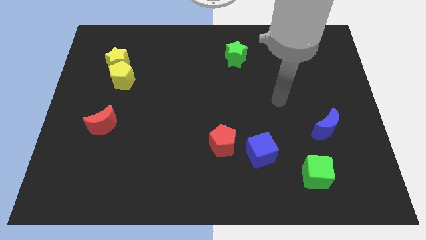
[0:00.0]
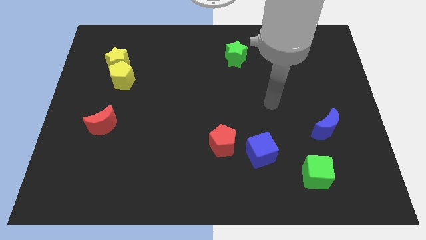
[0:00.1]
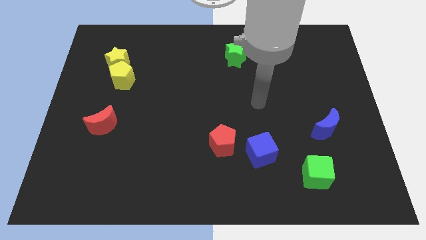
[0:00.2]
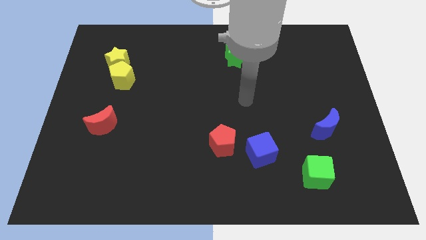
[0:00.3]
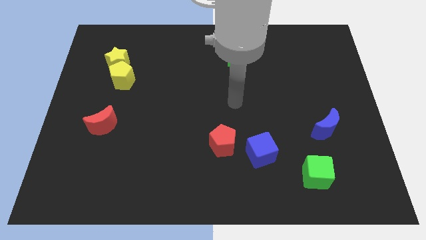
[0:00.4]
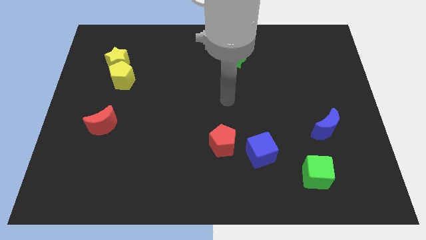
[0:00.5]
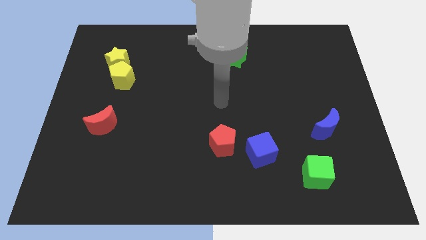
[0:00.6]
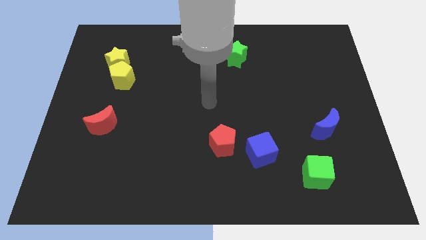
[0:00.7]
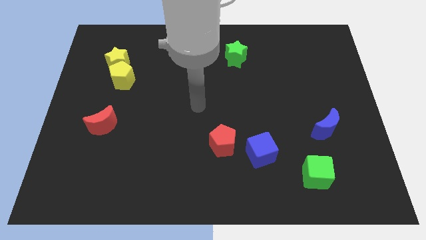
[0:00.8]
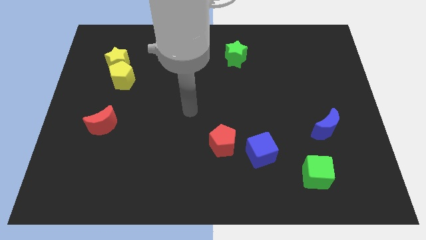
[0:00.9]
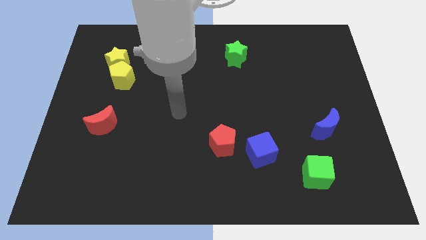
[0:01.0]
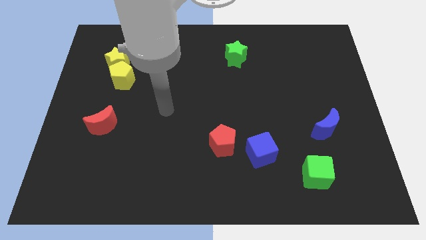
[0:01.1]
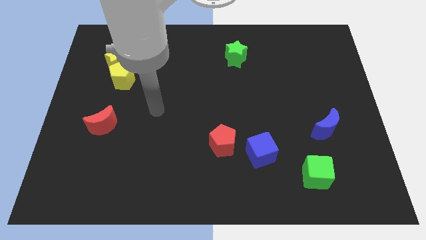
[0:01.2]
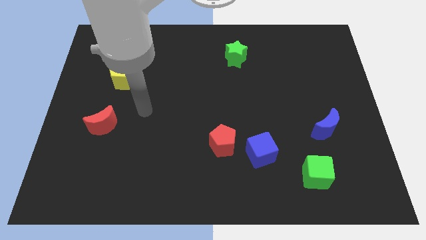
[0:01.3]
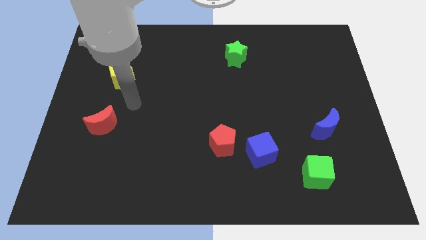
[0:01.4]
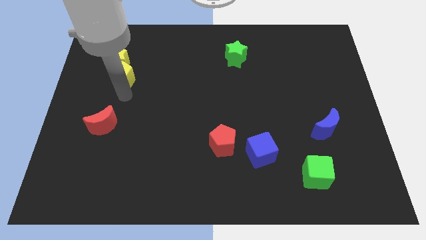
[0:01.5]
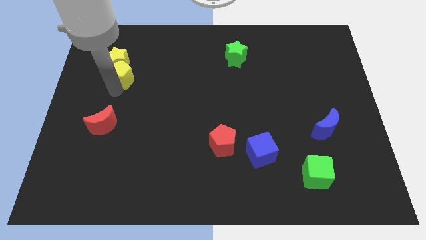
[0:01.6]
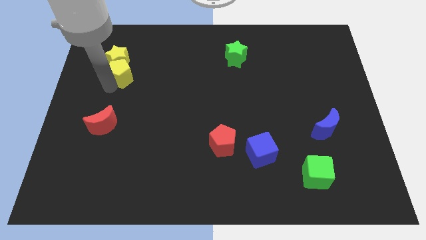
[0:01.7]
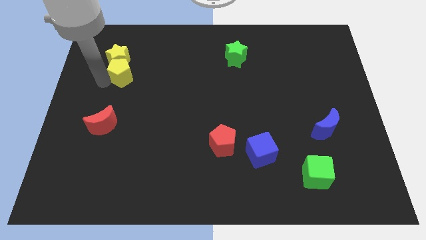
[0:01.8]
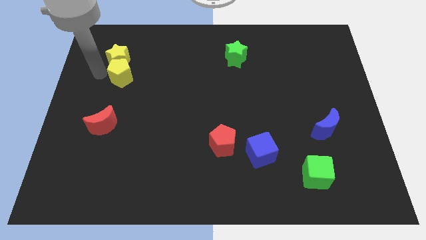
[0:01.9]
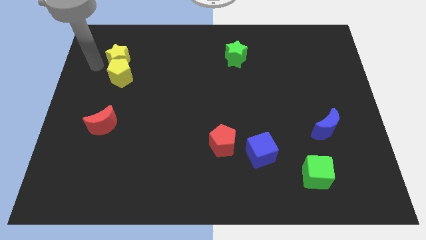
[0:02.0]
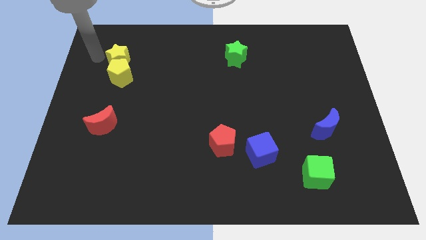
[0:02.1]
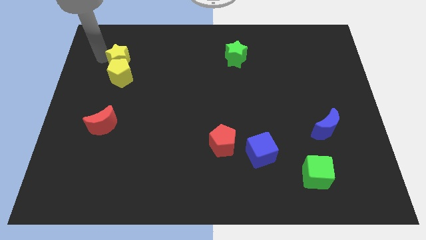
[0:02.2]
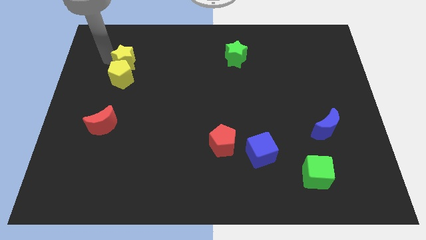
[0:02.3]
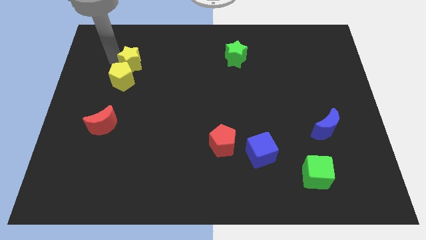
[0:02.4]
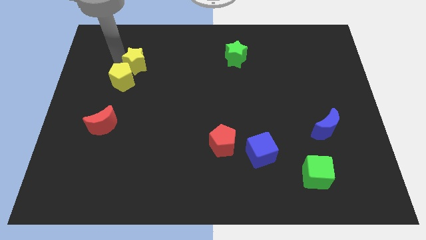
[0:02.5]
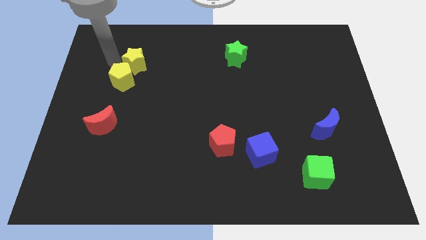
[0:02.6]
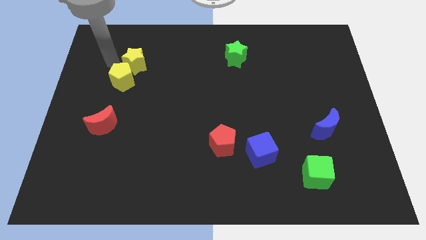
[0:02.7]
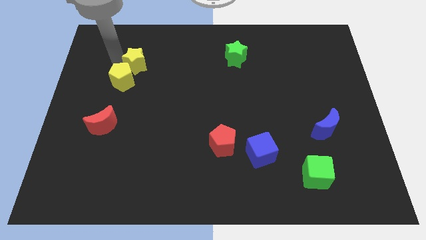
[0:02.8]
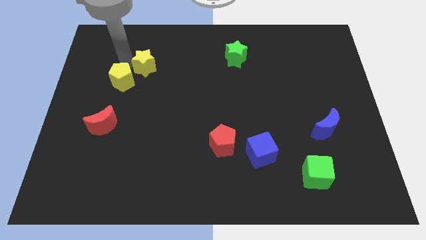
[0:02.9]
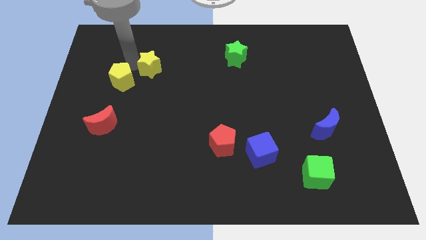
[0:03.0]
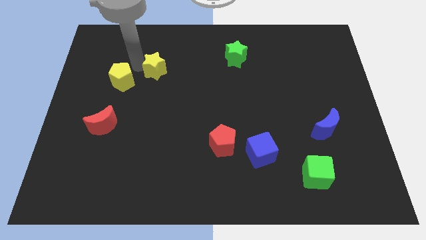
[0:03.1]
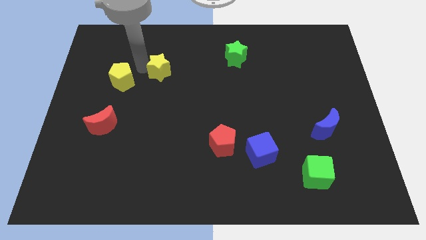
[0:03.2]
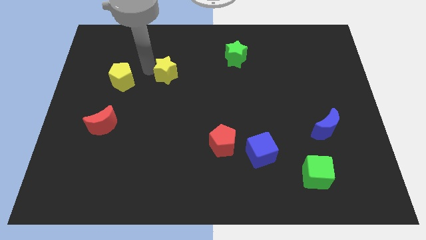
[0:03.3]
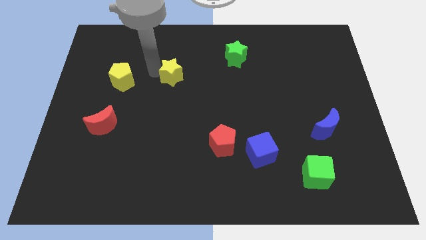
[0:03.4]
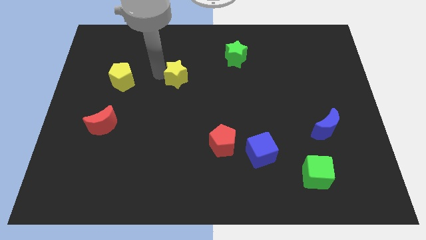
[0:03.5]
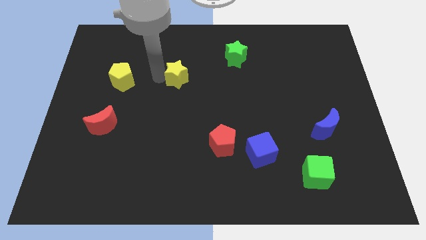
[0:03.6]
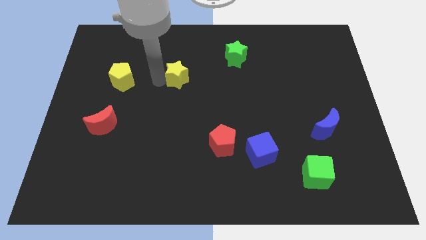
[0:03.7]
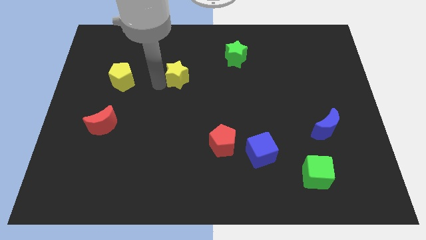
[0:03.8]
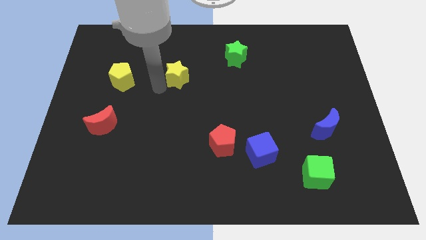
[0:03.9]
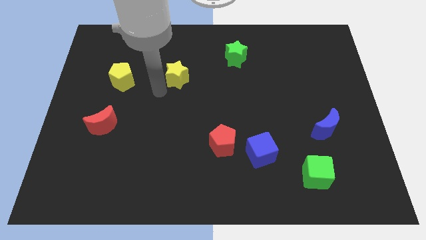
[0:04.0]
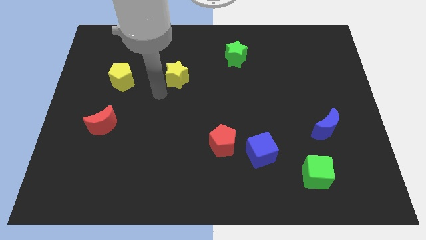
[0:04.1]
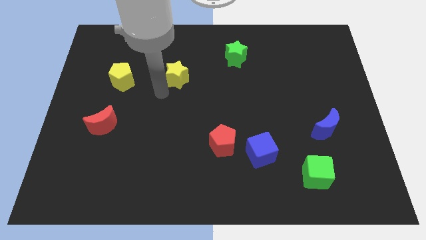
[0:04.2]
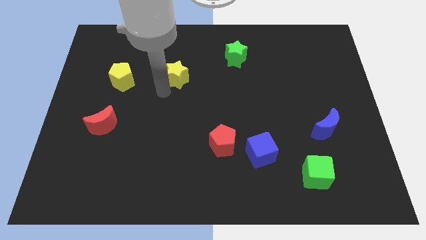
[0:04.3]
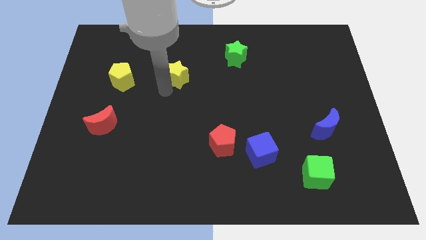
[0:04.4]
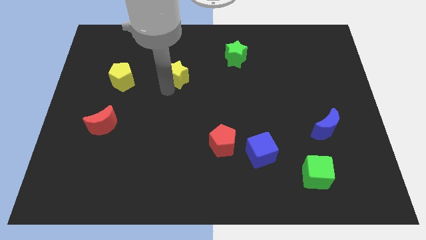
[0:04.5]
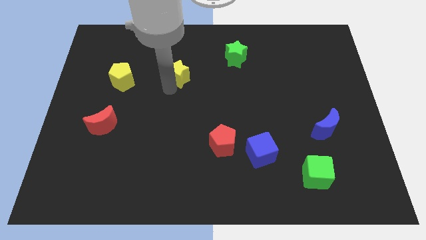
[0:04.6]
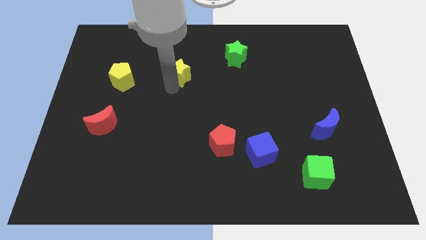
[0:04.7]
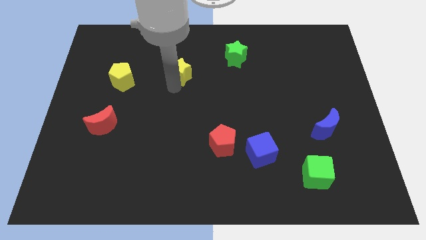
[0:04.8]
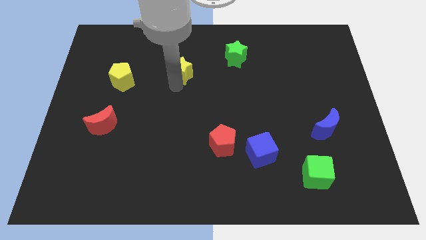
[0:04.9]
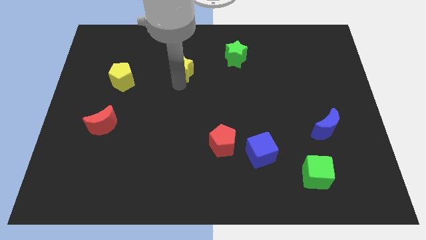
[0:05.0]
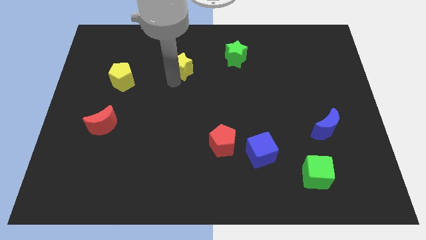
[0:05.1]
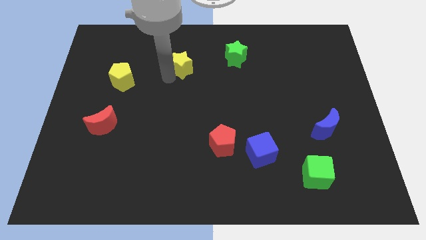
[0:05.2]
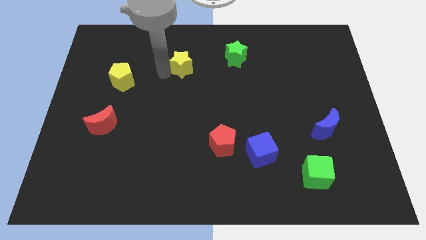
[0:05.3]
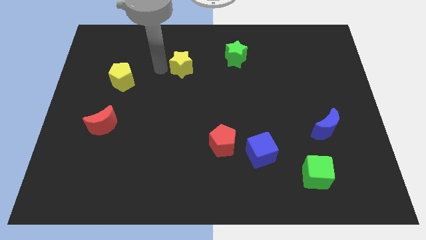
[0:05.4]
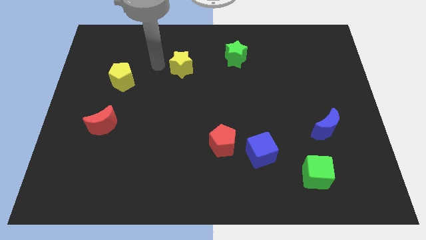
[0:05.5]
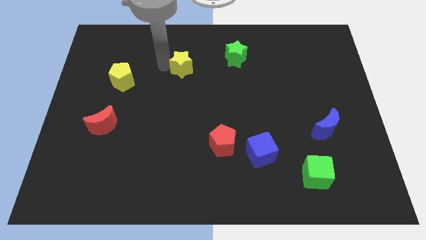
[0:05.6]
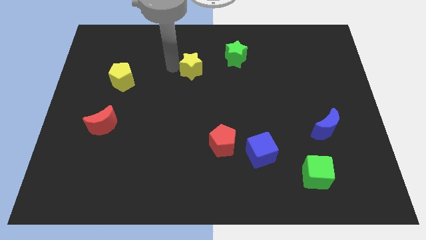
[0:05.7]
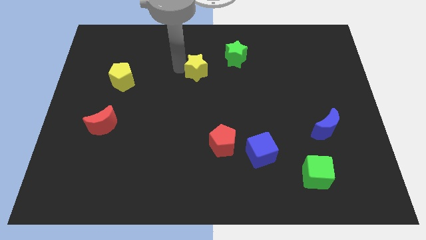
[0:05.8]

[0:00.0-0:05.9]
push the yellow star to the bottom left of the green star

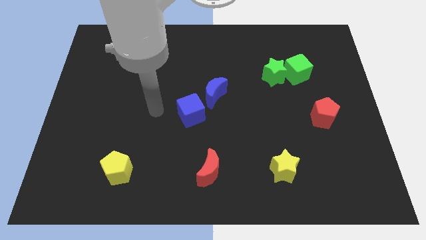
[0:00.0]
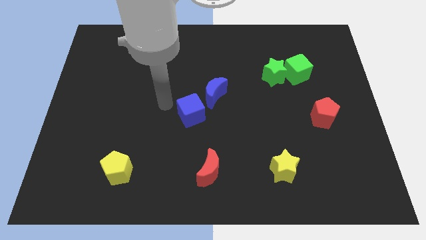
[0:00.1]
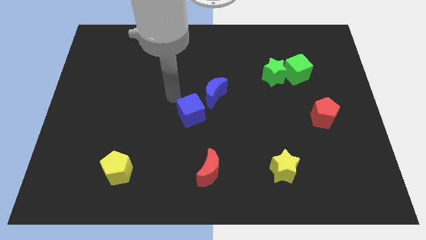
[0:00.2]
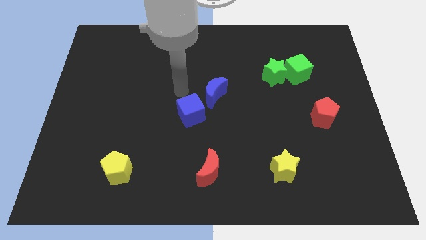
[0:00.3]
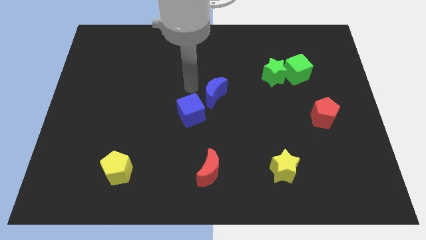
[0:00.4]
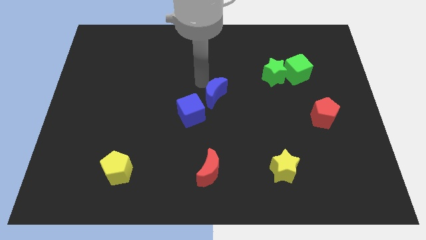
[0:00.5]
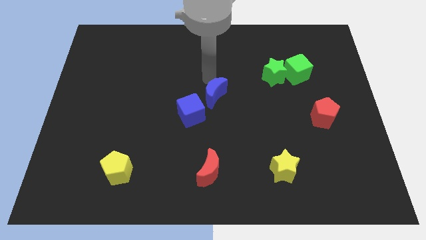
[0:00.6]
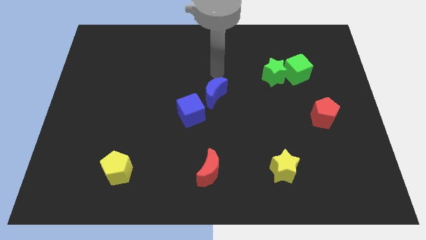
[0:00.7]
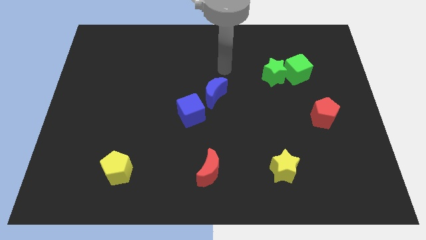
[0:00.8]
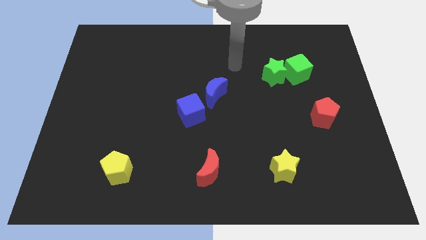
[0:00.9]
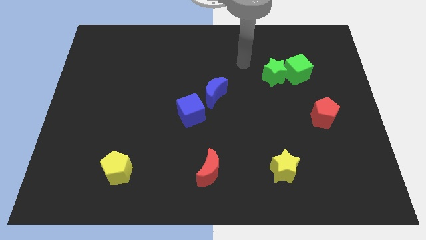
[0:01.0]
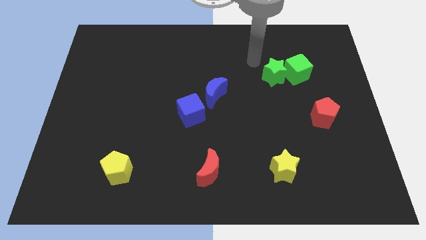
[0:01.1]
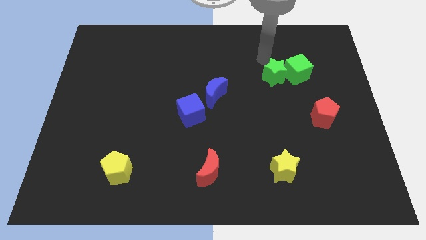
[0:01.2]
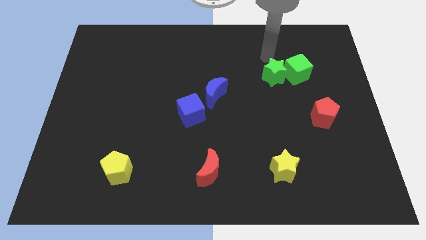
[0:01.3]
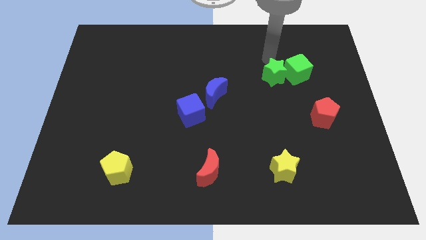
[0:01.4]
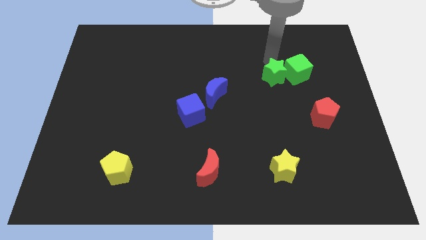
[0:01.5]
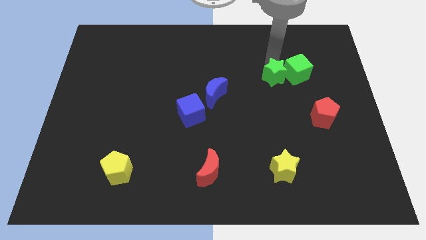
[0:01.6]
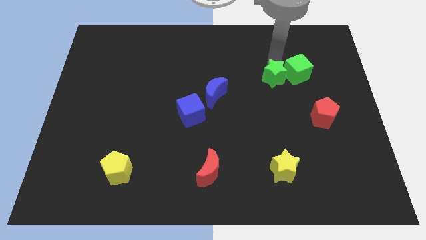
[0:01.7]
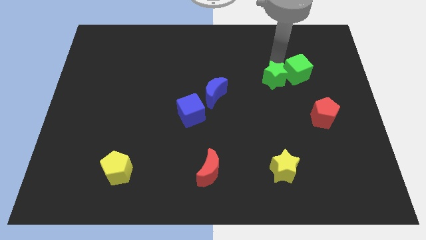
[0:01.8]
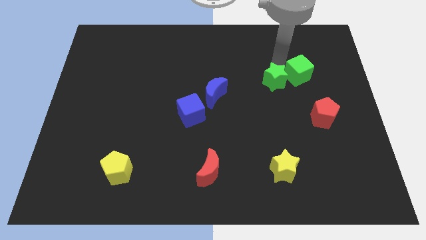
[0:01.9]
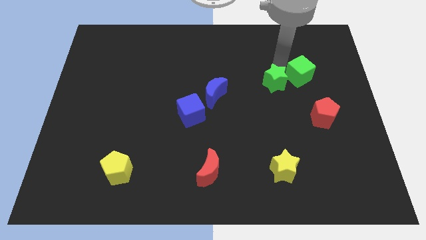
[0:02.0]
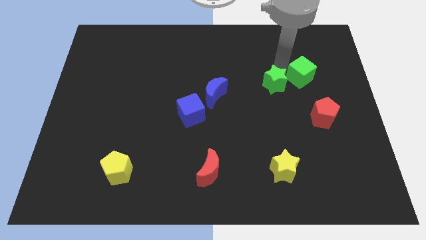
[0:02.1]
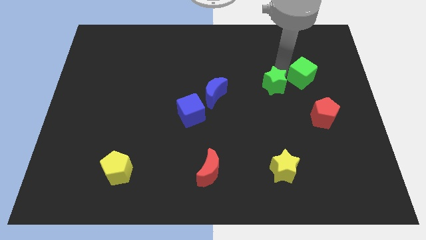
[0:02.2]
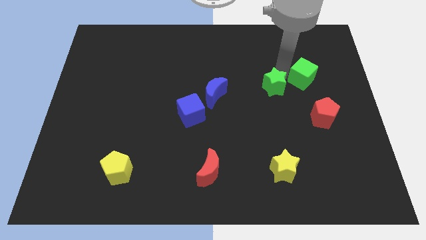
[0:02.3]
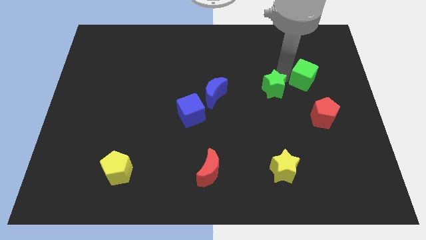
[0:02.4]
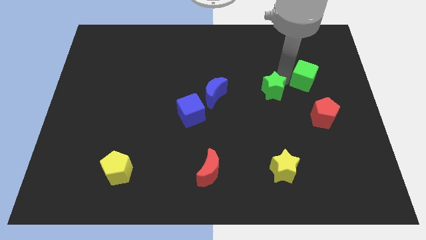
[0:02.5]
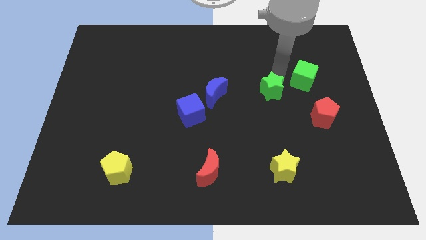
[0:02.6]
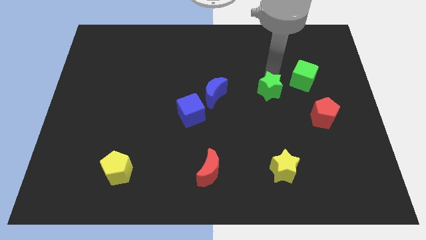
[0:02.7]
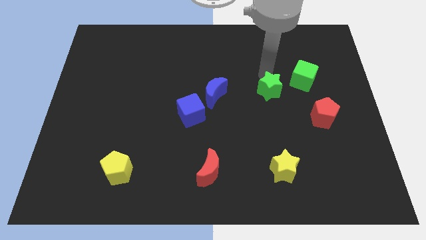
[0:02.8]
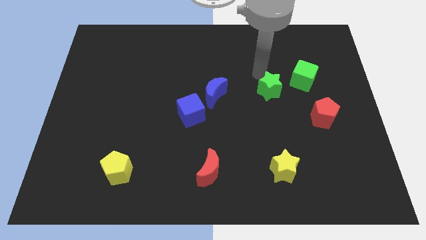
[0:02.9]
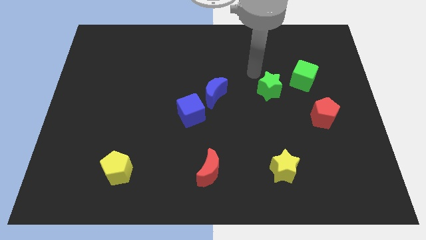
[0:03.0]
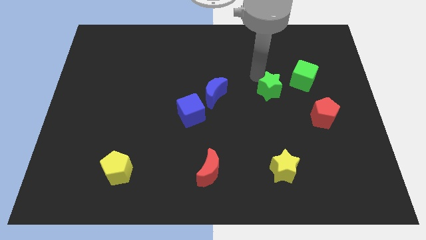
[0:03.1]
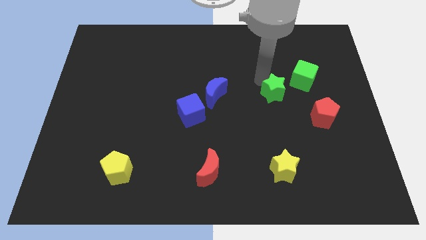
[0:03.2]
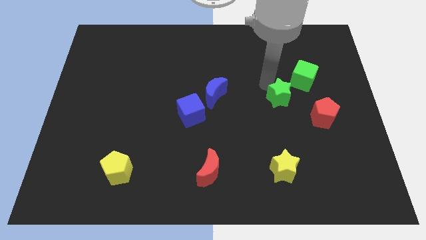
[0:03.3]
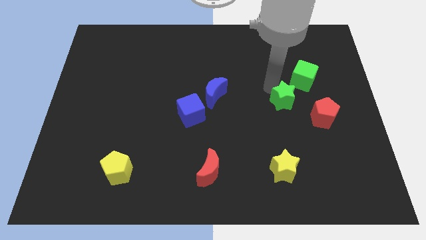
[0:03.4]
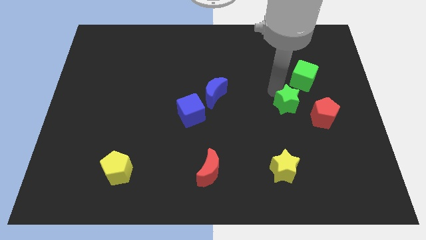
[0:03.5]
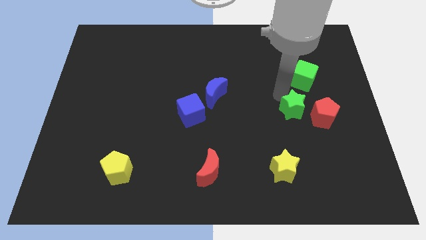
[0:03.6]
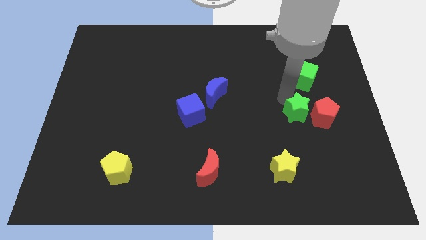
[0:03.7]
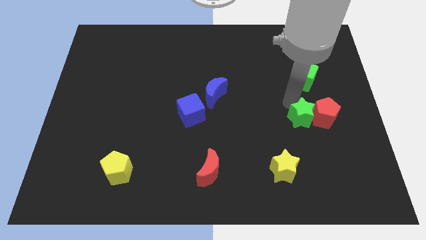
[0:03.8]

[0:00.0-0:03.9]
move the green star to the bottom left of the red pentagon
